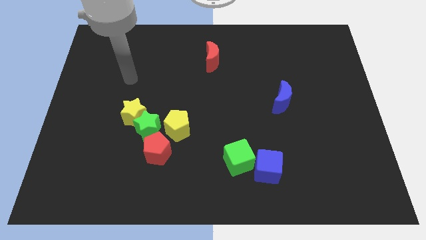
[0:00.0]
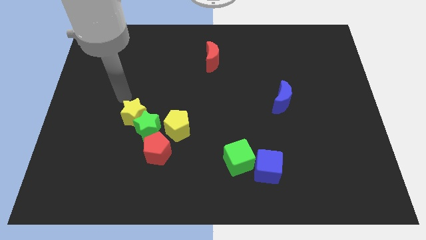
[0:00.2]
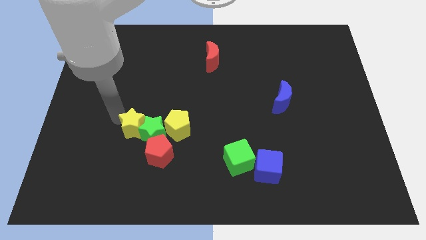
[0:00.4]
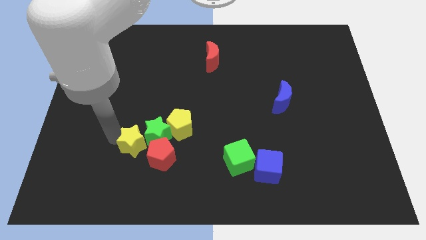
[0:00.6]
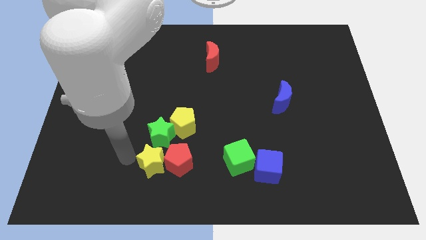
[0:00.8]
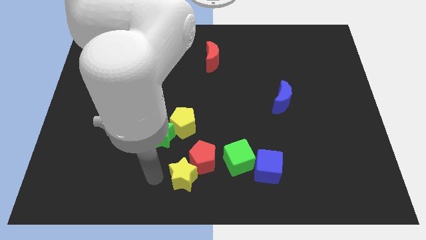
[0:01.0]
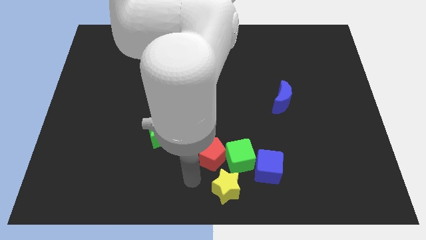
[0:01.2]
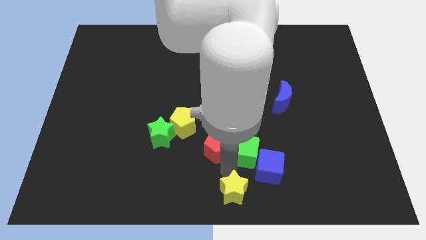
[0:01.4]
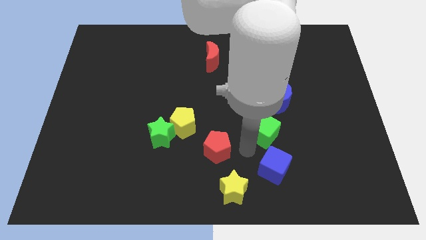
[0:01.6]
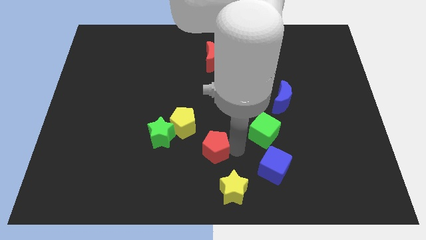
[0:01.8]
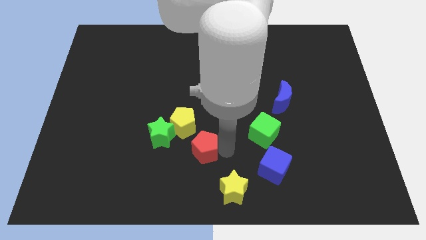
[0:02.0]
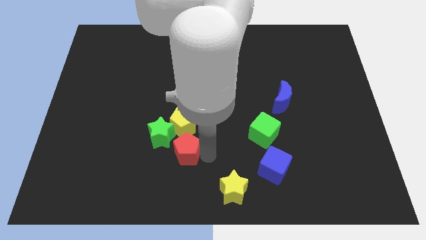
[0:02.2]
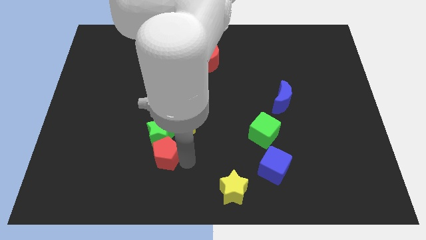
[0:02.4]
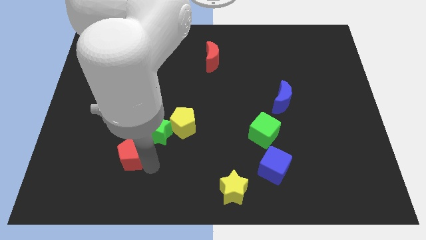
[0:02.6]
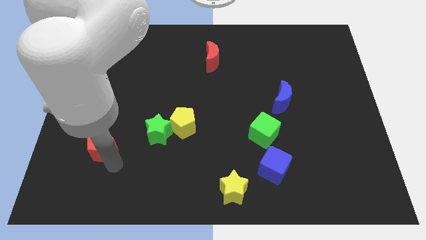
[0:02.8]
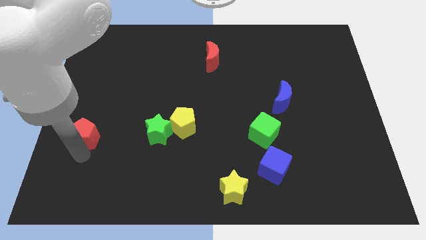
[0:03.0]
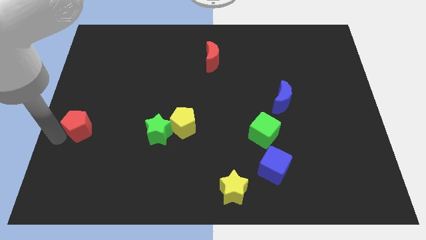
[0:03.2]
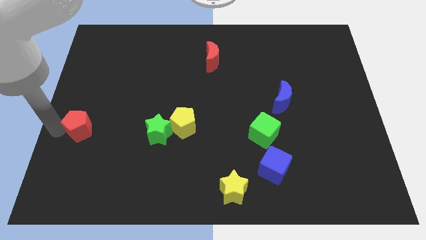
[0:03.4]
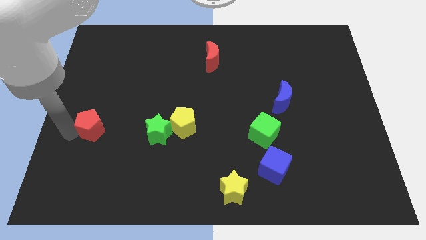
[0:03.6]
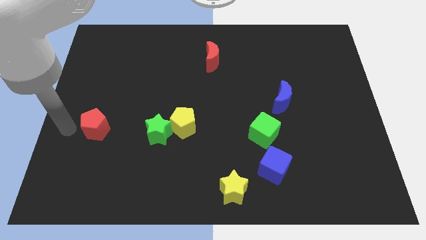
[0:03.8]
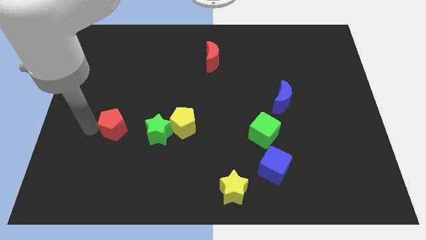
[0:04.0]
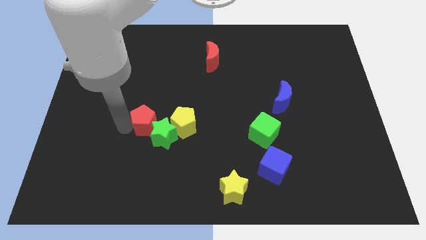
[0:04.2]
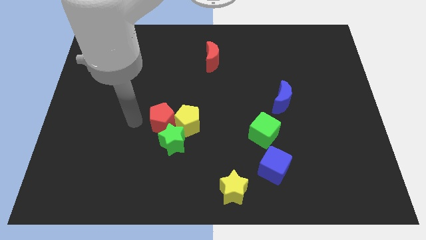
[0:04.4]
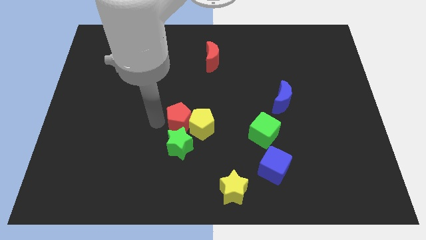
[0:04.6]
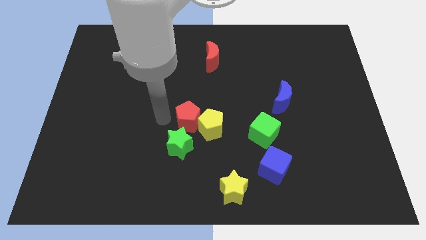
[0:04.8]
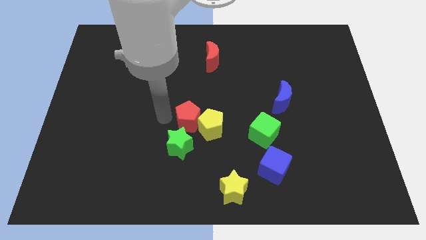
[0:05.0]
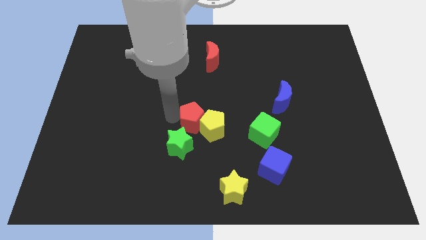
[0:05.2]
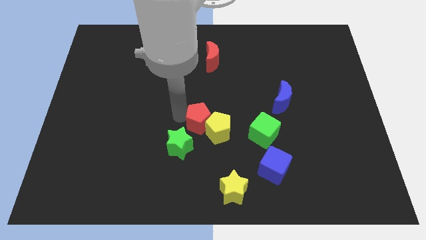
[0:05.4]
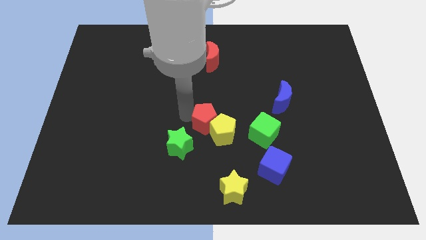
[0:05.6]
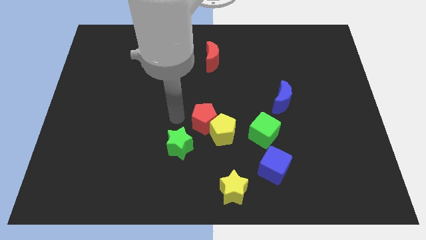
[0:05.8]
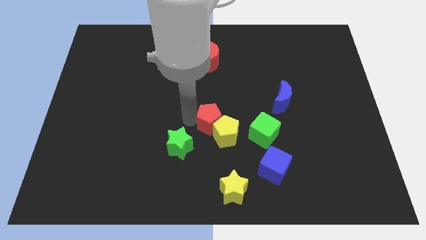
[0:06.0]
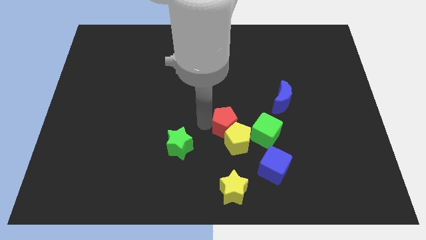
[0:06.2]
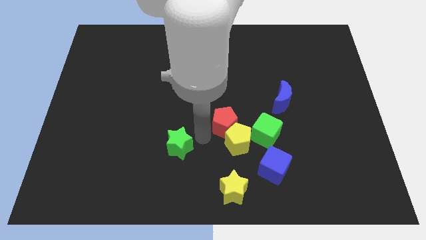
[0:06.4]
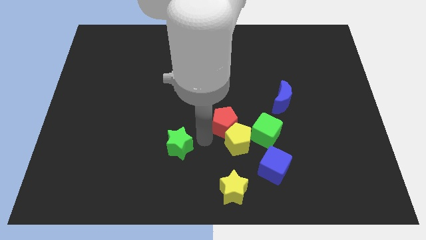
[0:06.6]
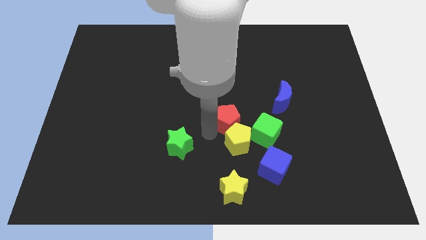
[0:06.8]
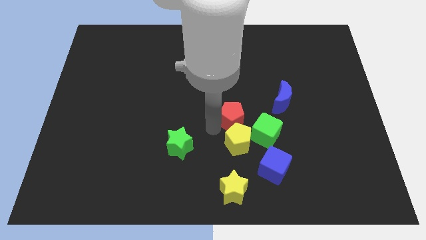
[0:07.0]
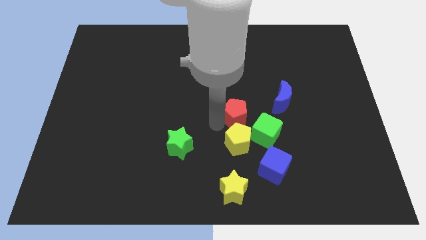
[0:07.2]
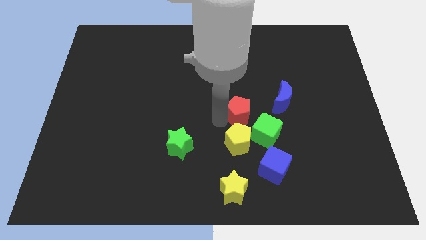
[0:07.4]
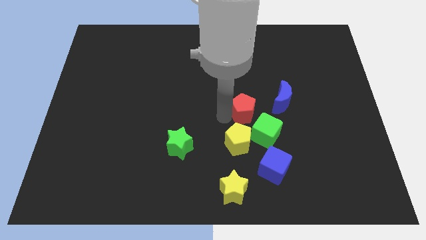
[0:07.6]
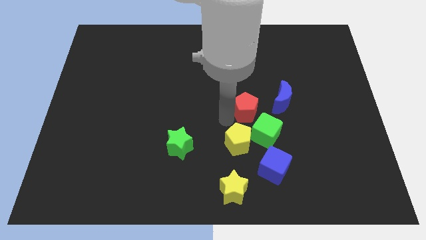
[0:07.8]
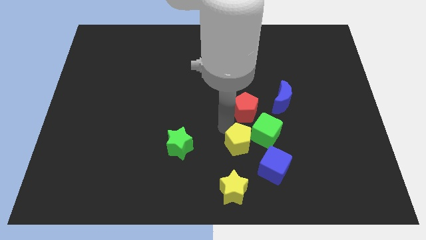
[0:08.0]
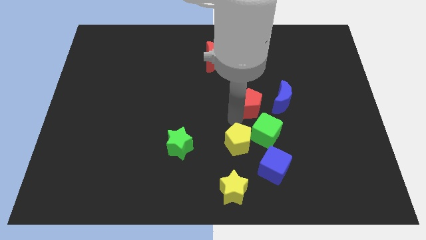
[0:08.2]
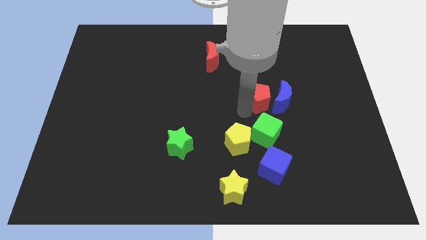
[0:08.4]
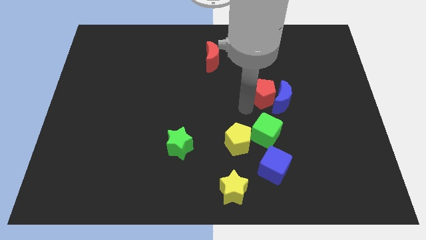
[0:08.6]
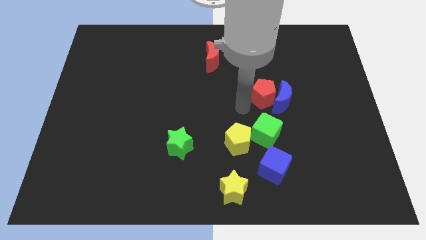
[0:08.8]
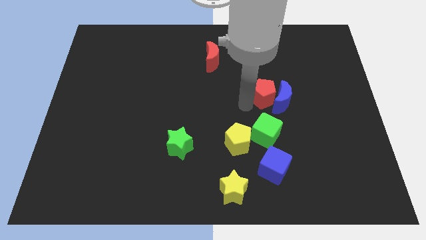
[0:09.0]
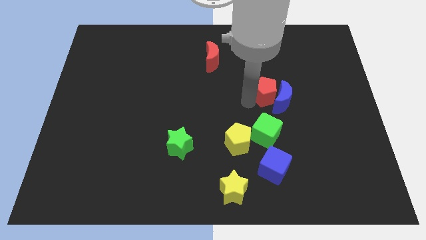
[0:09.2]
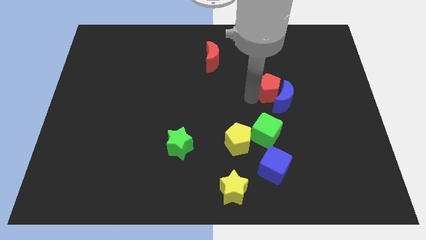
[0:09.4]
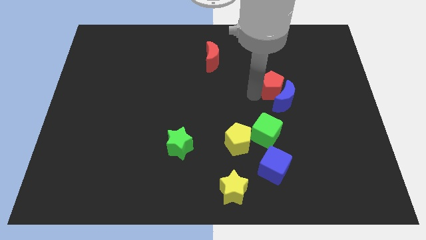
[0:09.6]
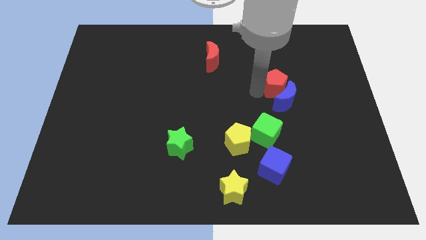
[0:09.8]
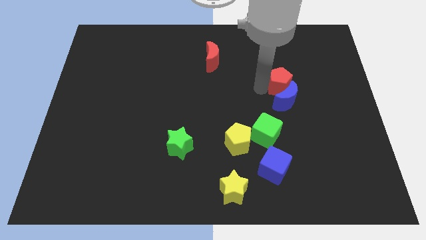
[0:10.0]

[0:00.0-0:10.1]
push the red pentagon to the top right of the blue moon

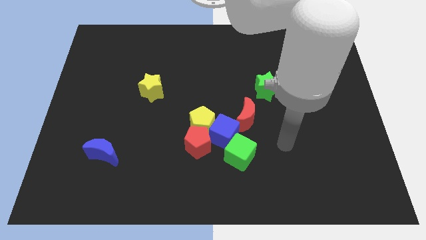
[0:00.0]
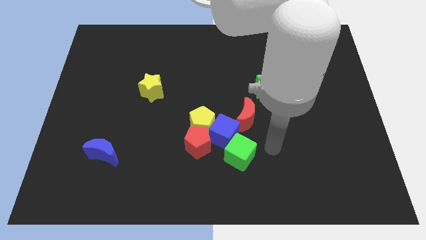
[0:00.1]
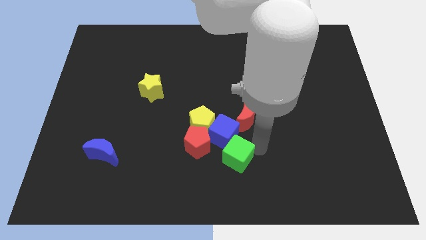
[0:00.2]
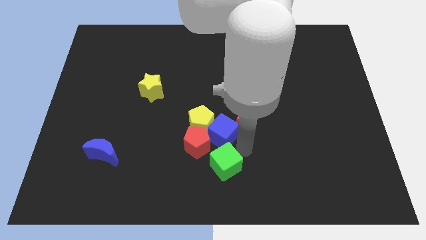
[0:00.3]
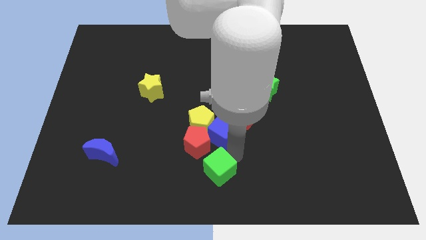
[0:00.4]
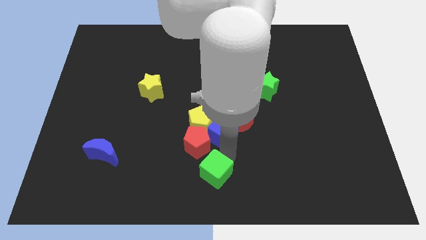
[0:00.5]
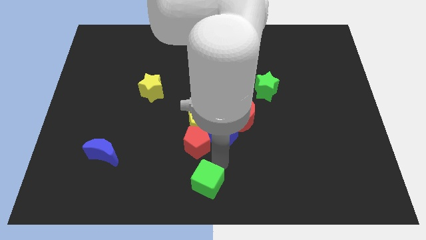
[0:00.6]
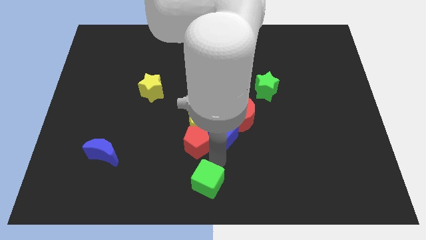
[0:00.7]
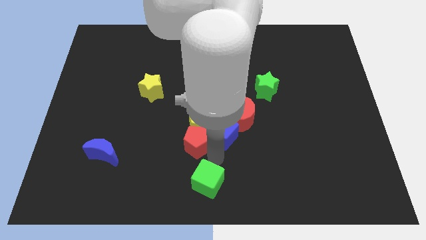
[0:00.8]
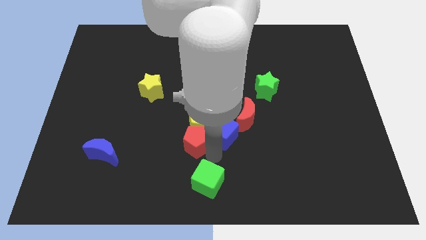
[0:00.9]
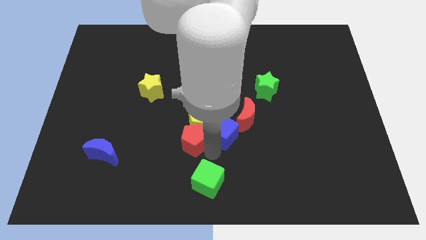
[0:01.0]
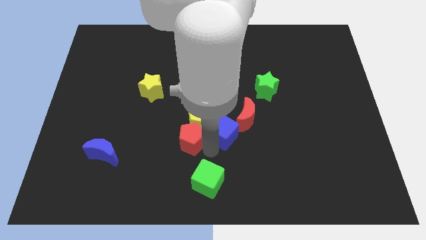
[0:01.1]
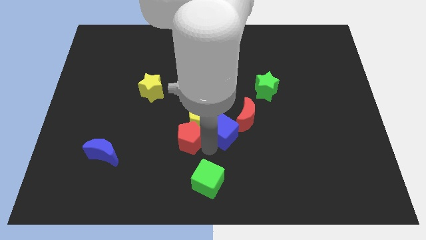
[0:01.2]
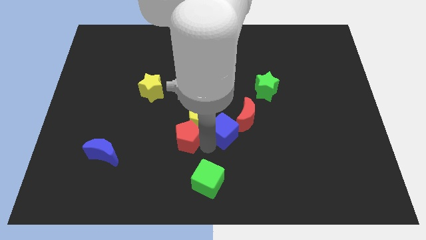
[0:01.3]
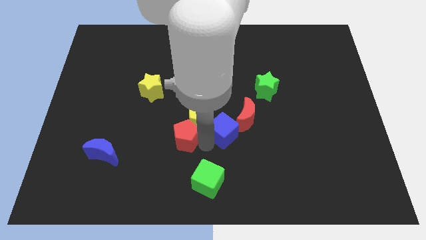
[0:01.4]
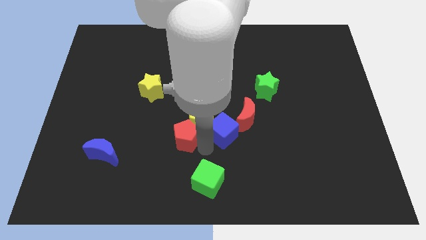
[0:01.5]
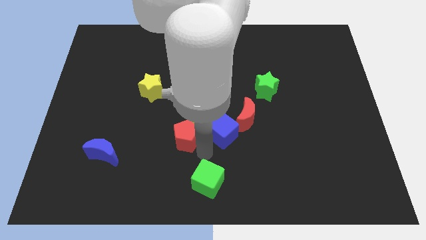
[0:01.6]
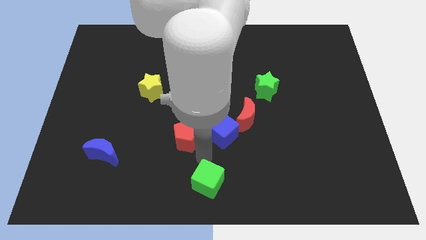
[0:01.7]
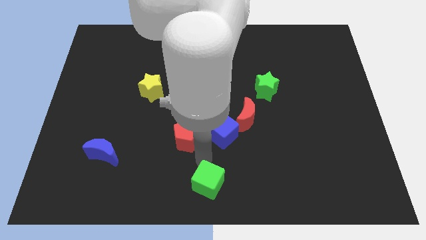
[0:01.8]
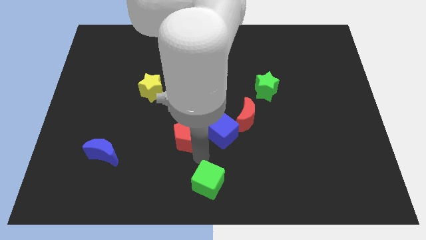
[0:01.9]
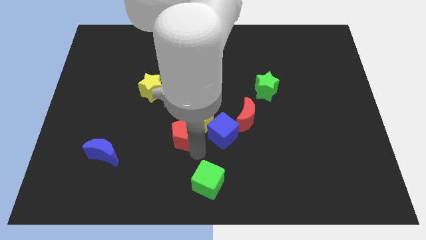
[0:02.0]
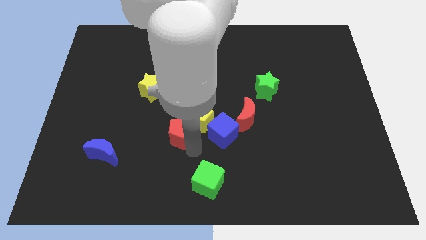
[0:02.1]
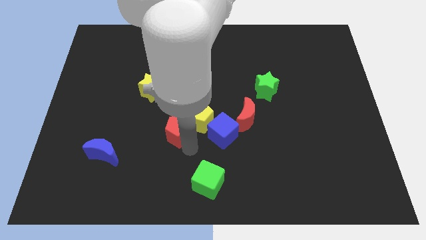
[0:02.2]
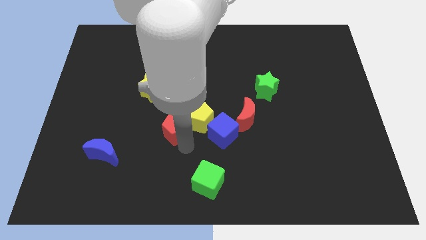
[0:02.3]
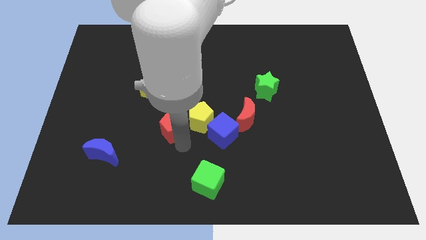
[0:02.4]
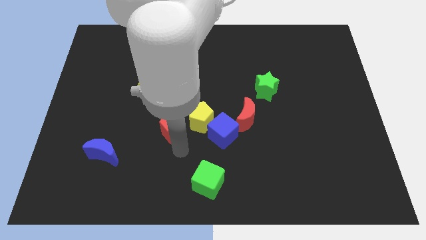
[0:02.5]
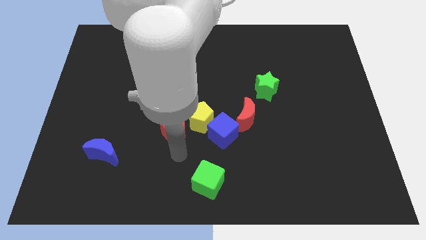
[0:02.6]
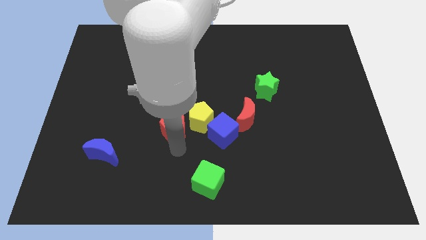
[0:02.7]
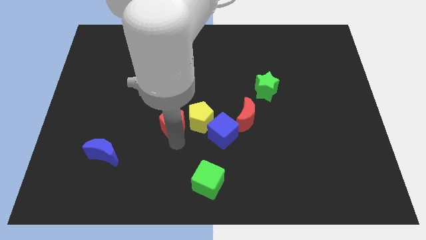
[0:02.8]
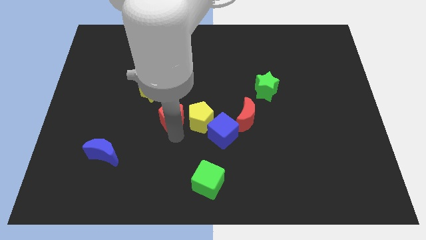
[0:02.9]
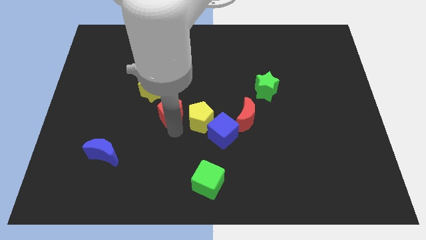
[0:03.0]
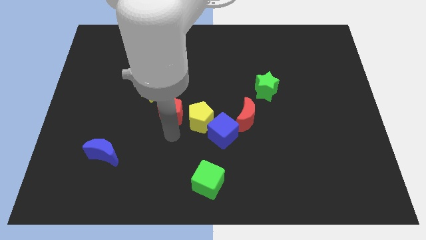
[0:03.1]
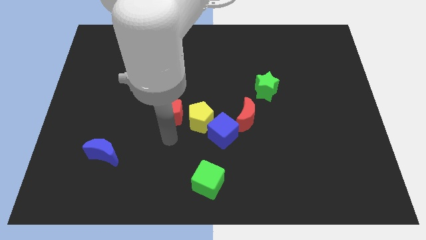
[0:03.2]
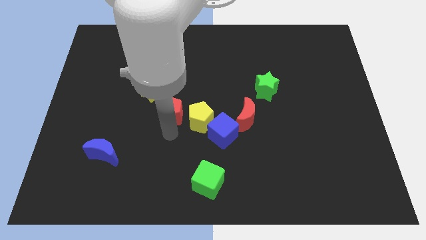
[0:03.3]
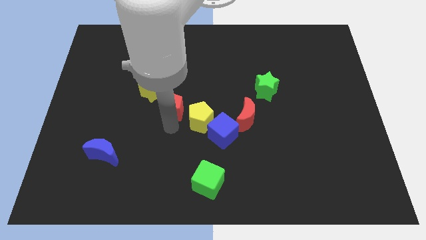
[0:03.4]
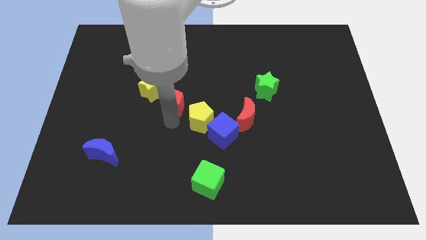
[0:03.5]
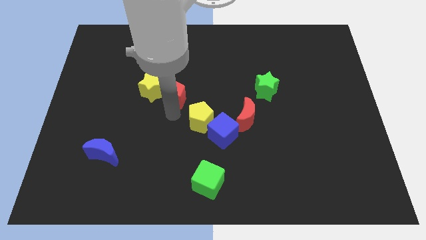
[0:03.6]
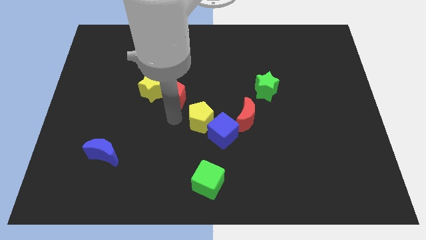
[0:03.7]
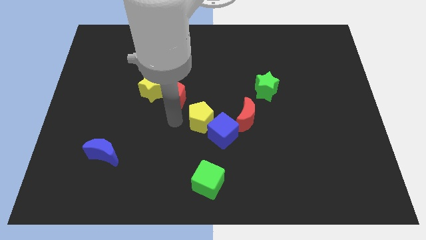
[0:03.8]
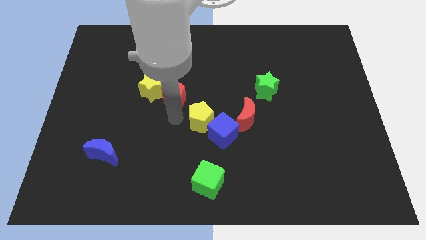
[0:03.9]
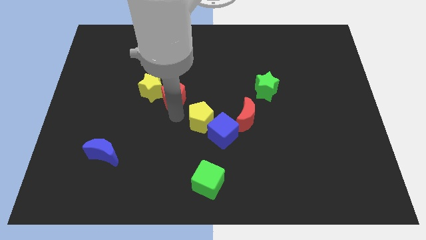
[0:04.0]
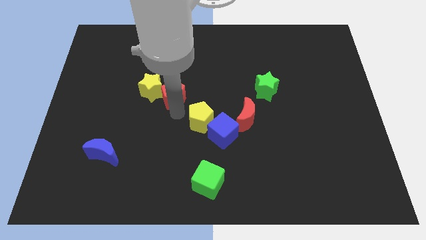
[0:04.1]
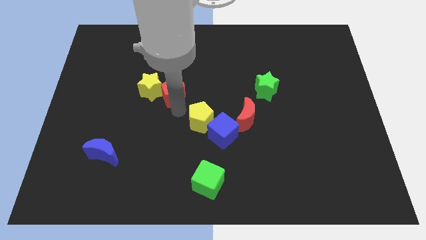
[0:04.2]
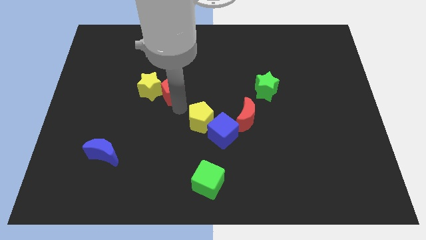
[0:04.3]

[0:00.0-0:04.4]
slide the red pentagon diagonally up and to the right of the yellow star
